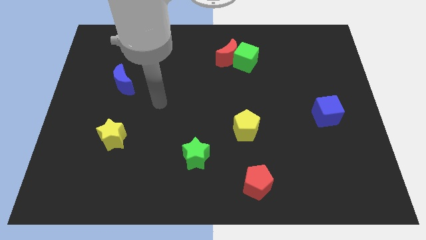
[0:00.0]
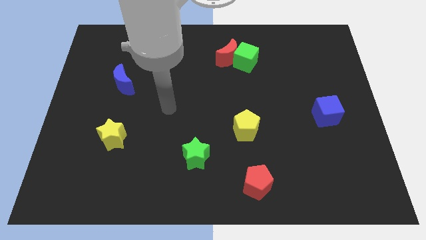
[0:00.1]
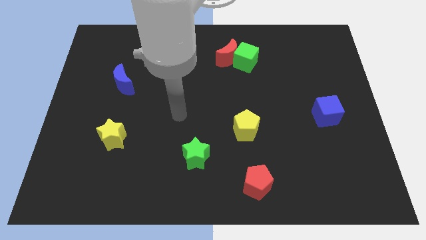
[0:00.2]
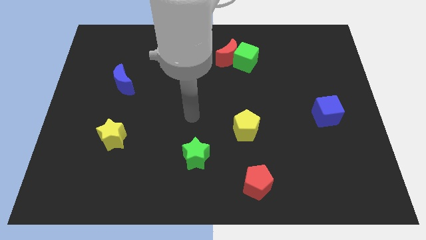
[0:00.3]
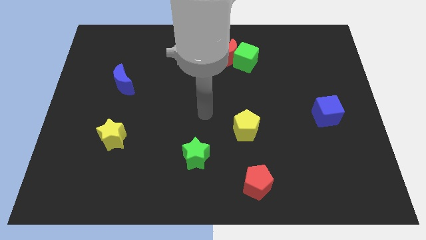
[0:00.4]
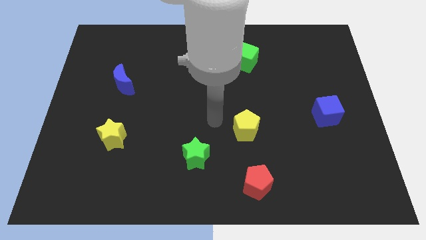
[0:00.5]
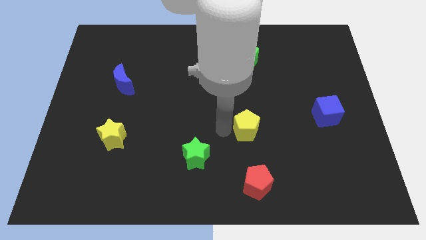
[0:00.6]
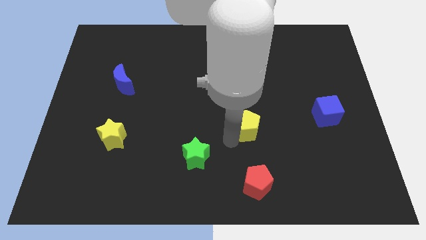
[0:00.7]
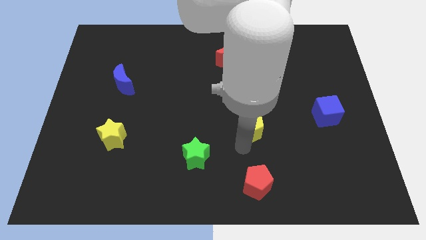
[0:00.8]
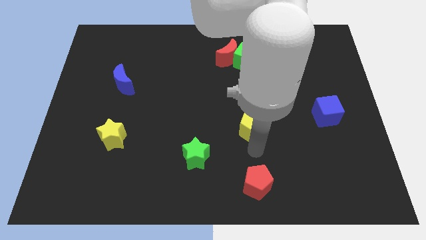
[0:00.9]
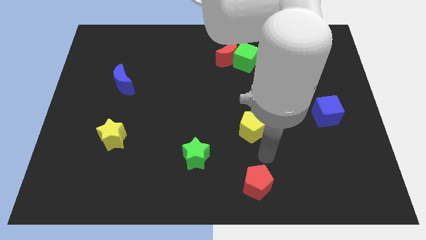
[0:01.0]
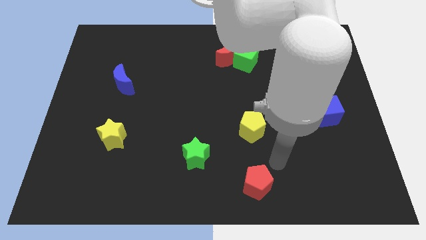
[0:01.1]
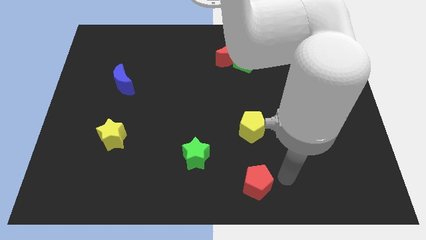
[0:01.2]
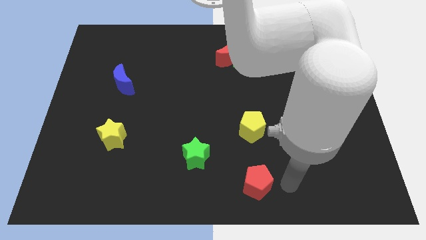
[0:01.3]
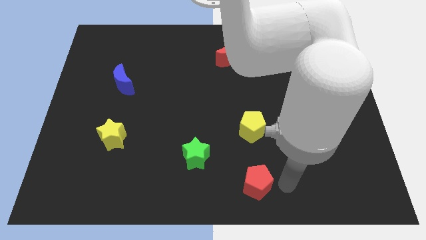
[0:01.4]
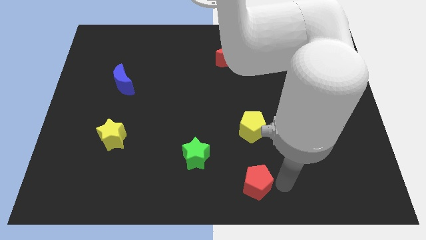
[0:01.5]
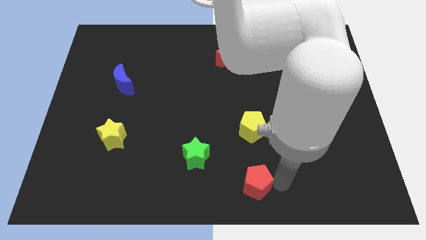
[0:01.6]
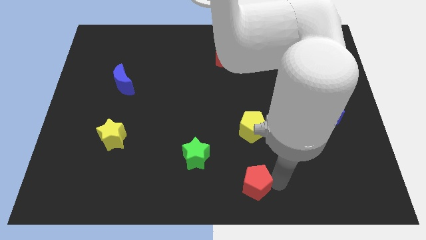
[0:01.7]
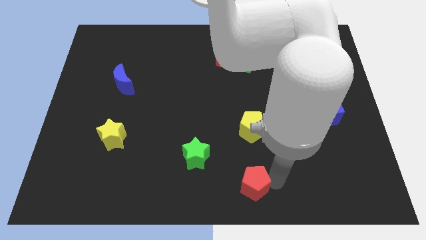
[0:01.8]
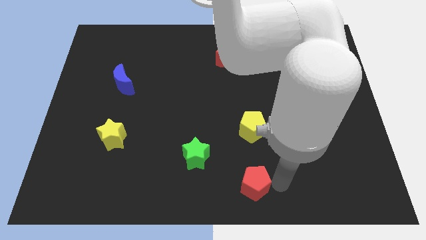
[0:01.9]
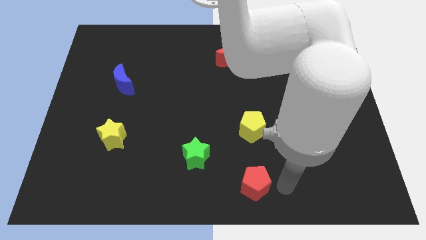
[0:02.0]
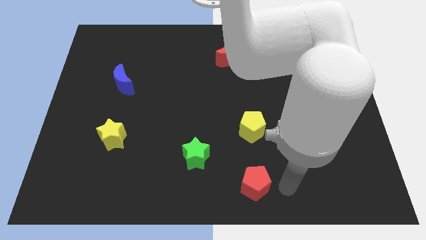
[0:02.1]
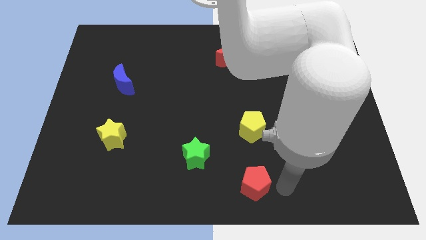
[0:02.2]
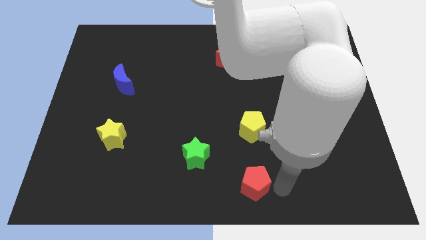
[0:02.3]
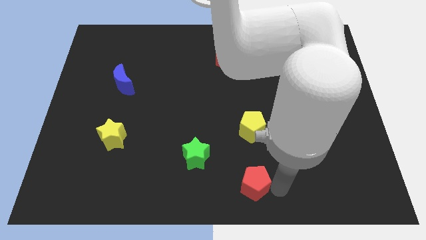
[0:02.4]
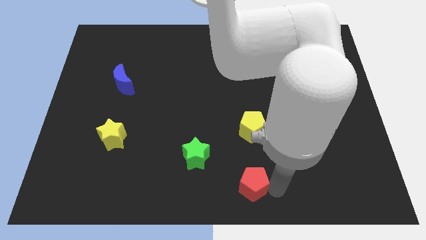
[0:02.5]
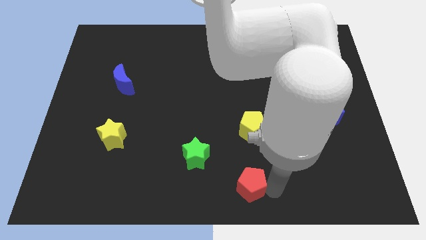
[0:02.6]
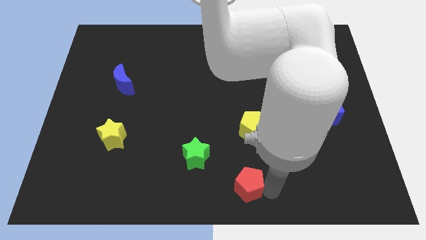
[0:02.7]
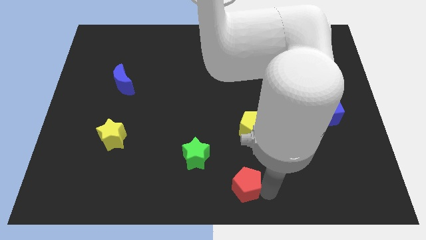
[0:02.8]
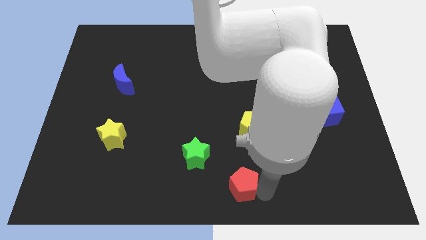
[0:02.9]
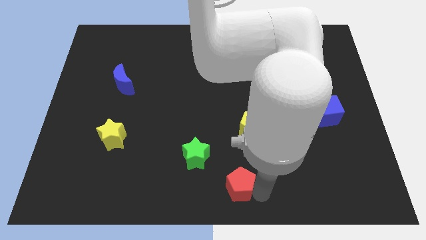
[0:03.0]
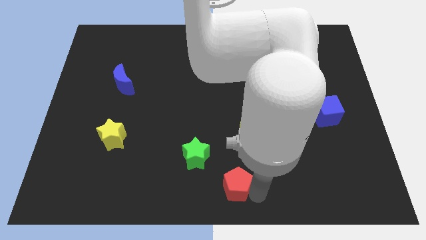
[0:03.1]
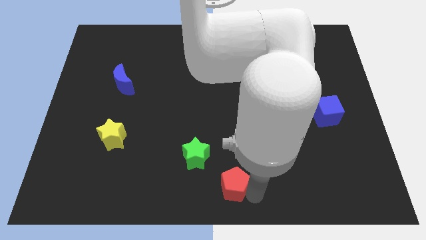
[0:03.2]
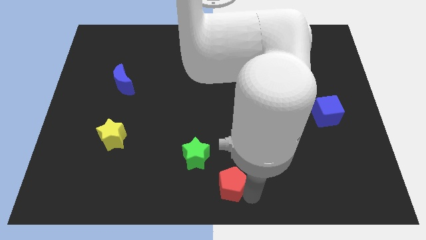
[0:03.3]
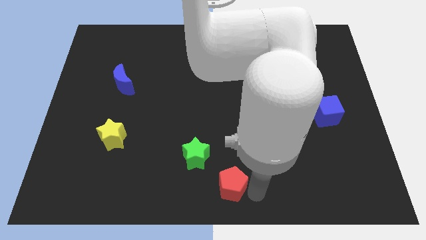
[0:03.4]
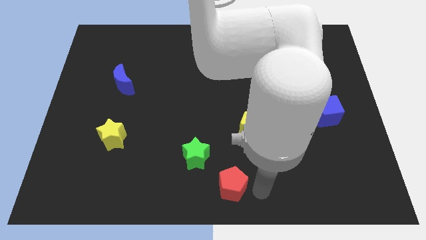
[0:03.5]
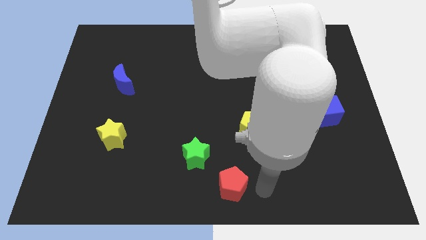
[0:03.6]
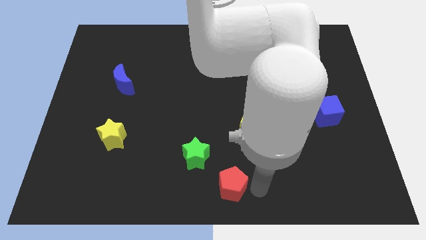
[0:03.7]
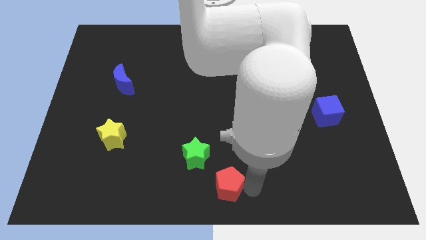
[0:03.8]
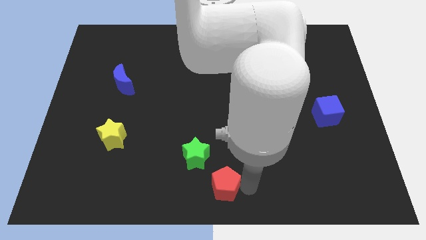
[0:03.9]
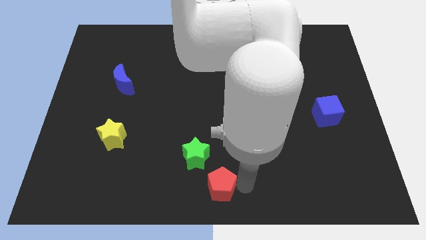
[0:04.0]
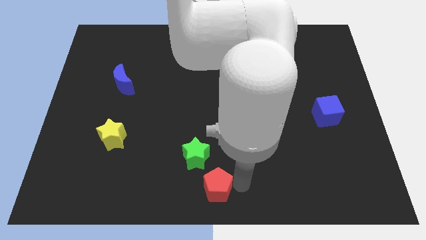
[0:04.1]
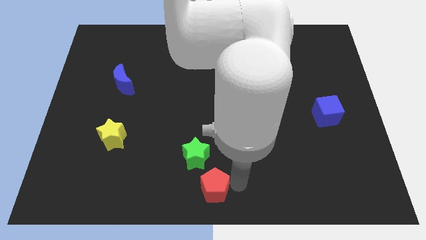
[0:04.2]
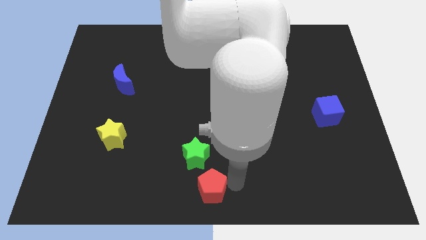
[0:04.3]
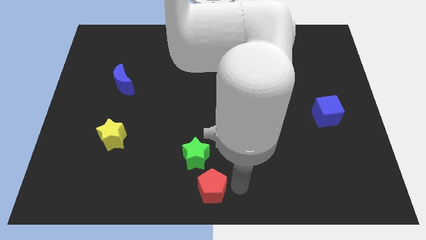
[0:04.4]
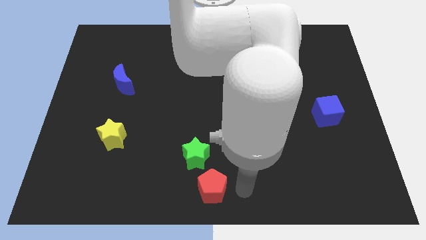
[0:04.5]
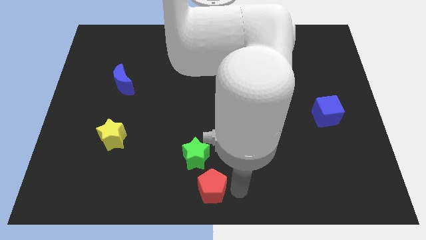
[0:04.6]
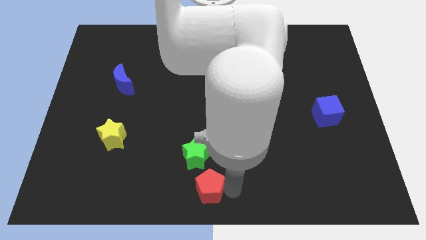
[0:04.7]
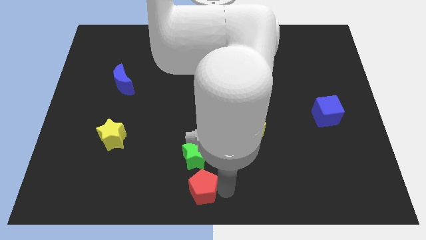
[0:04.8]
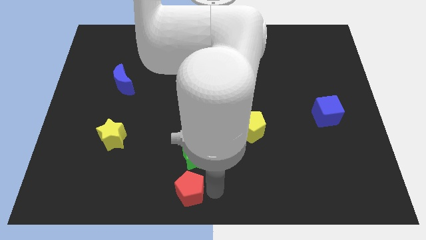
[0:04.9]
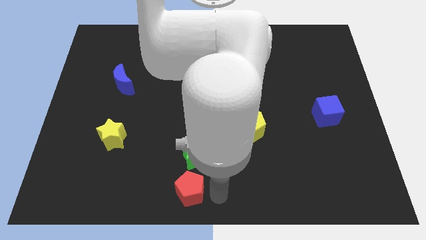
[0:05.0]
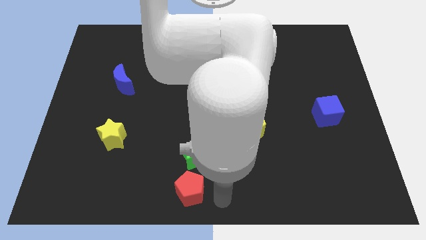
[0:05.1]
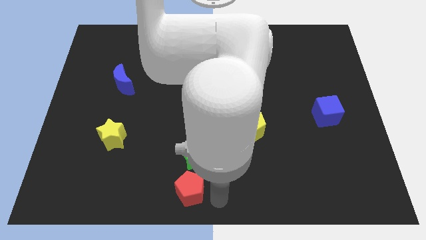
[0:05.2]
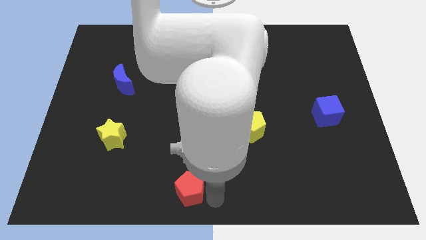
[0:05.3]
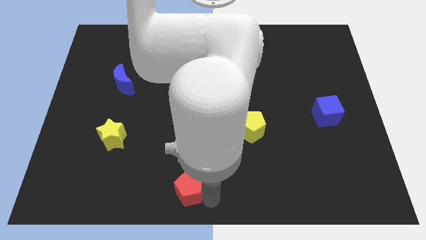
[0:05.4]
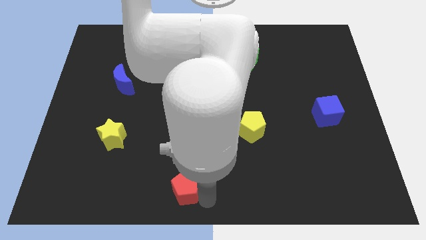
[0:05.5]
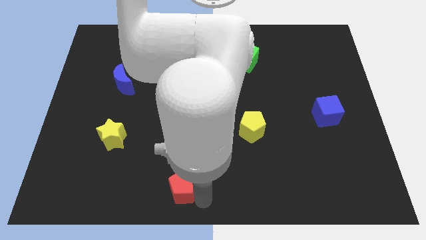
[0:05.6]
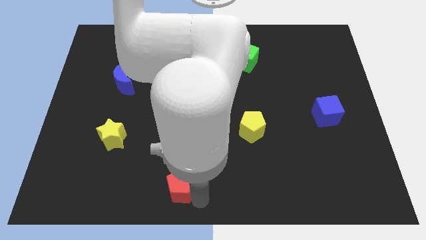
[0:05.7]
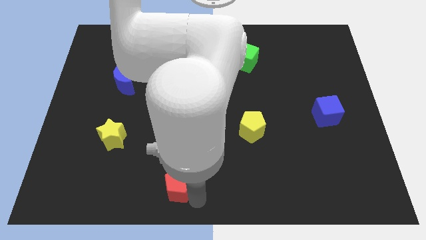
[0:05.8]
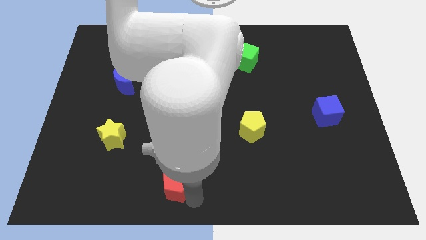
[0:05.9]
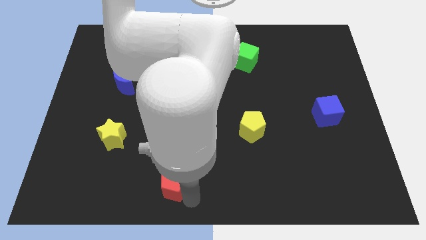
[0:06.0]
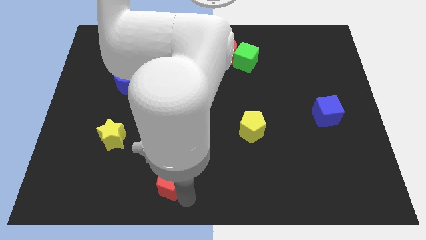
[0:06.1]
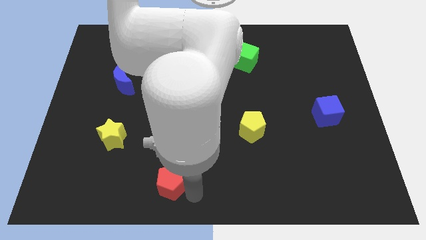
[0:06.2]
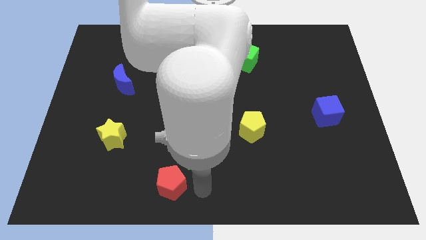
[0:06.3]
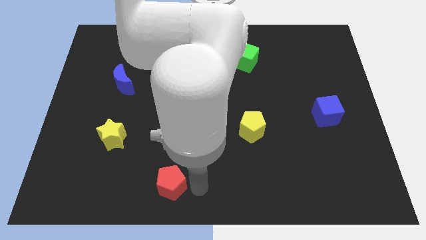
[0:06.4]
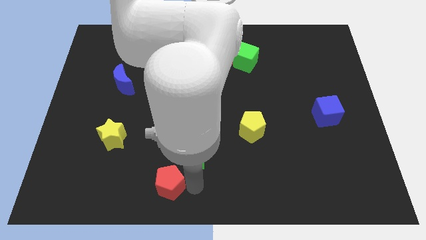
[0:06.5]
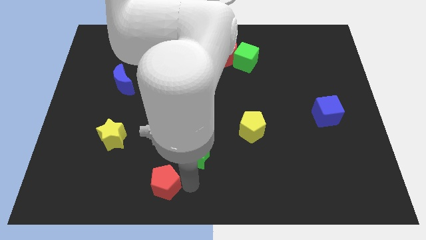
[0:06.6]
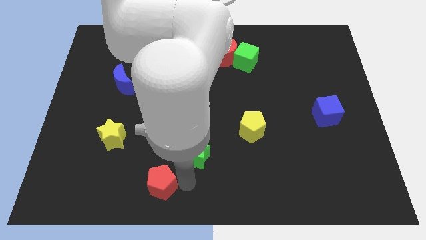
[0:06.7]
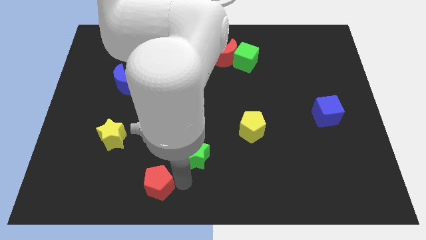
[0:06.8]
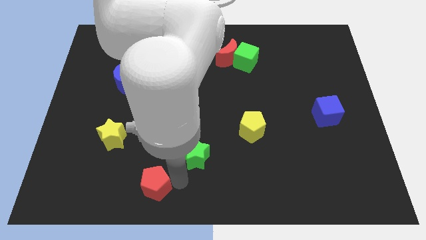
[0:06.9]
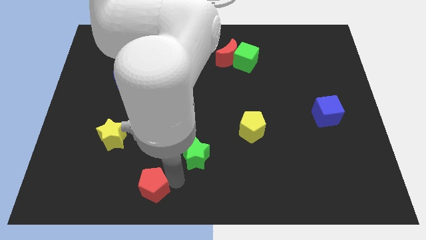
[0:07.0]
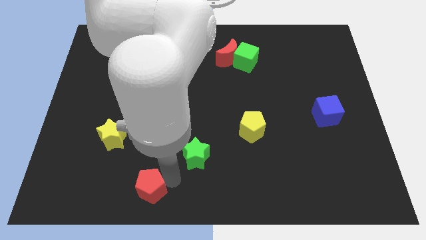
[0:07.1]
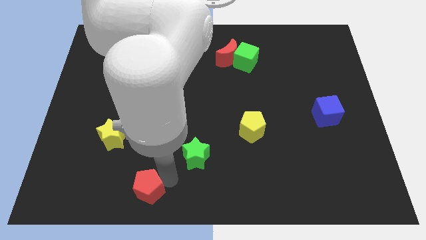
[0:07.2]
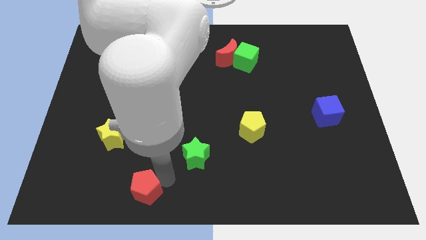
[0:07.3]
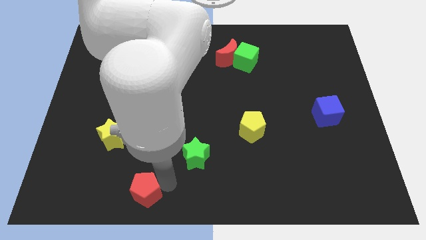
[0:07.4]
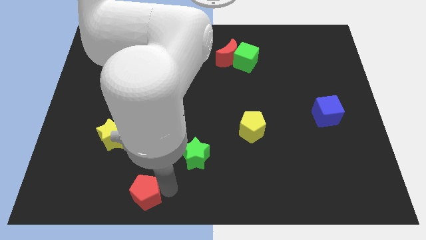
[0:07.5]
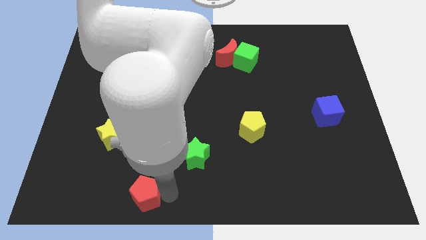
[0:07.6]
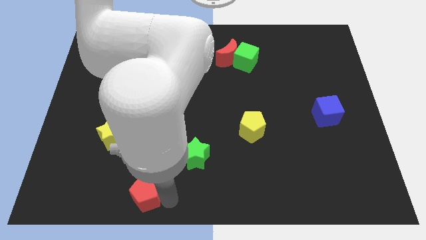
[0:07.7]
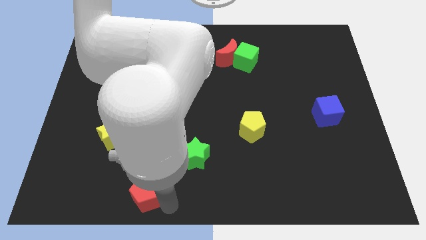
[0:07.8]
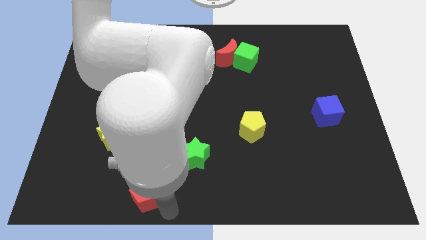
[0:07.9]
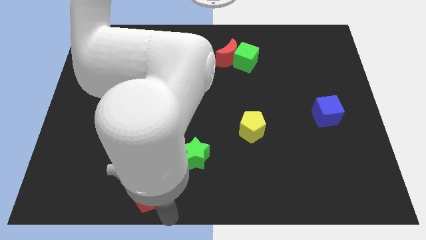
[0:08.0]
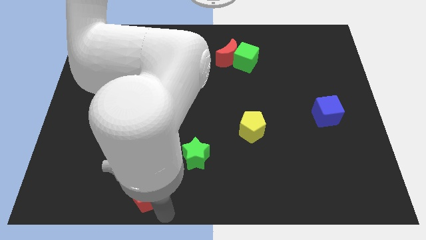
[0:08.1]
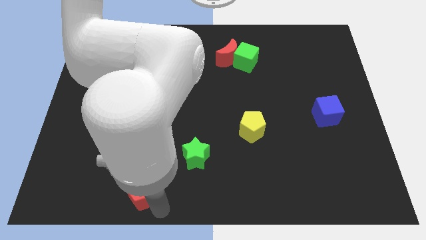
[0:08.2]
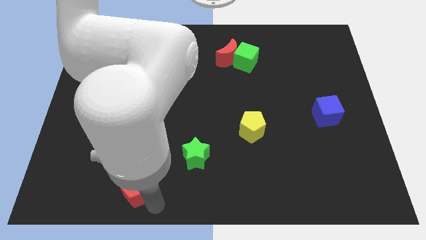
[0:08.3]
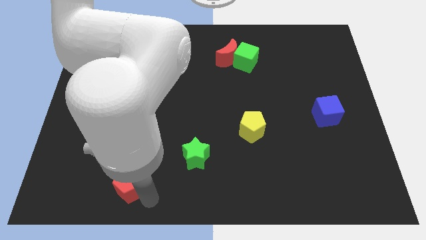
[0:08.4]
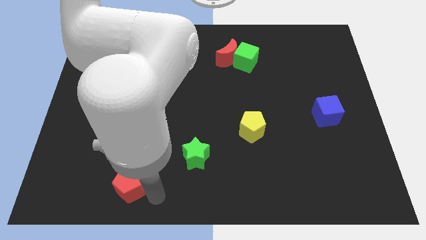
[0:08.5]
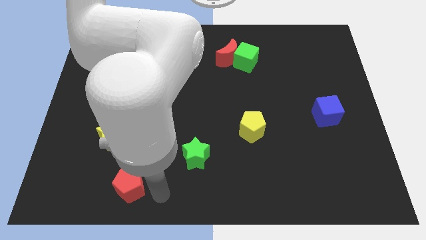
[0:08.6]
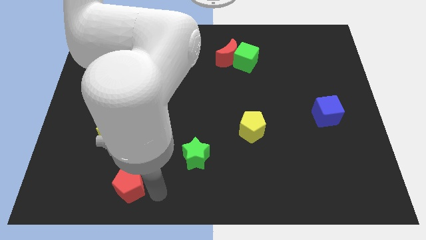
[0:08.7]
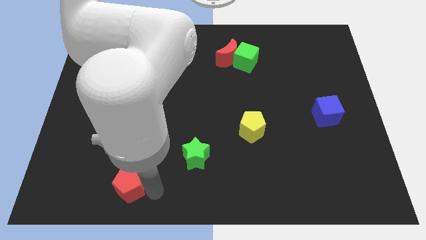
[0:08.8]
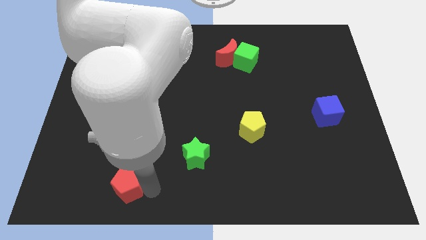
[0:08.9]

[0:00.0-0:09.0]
put the red pentagon to the bottom side of the yellow star
